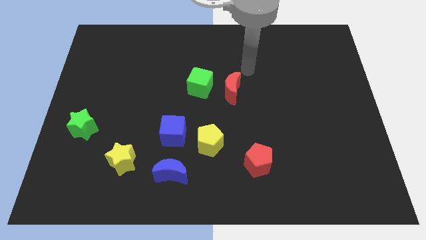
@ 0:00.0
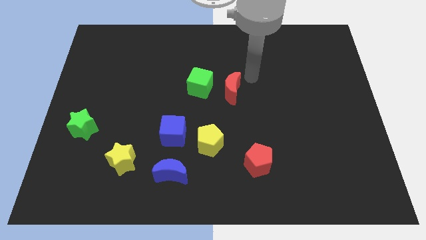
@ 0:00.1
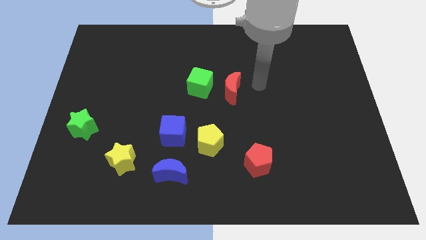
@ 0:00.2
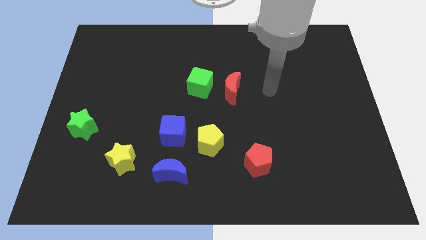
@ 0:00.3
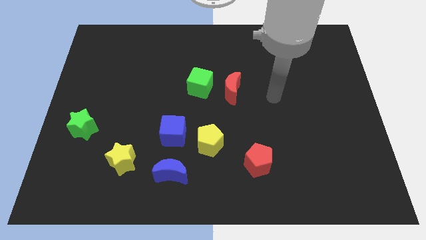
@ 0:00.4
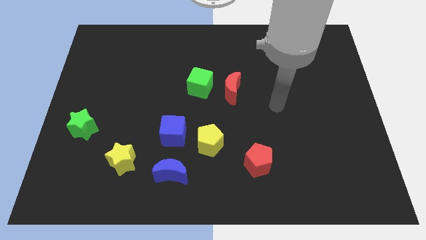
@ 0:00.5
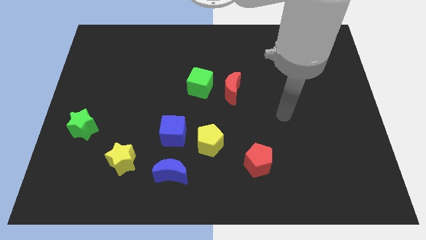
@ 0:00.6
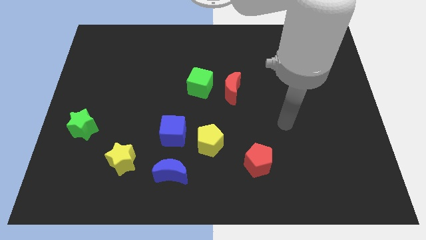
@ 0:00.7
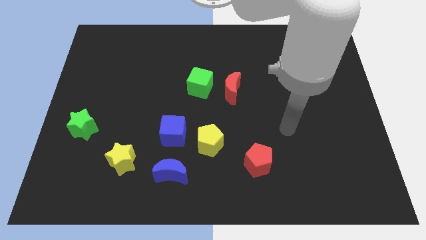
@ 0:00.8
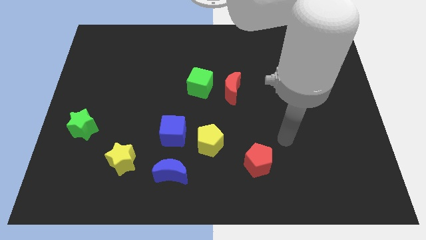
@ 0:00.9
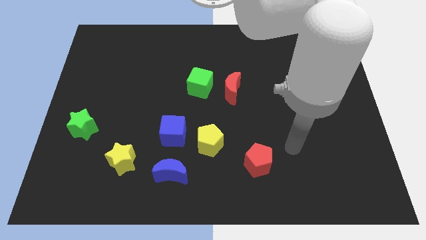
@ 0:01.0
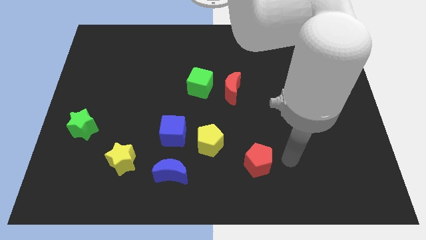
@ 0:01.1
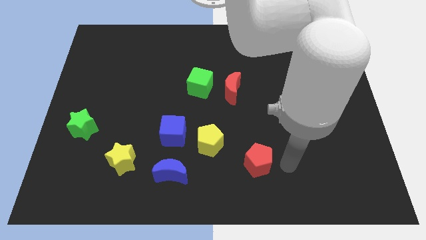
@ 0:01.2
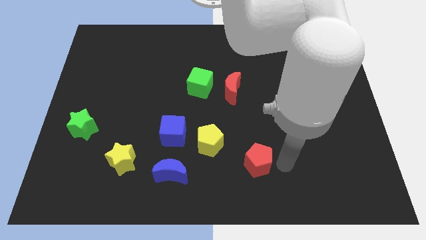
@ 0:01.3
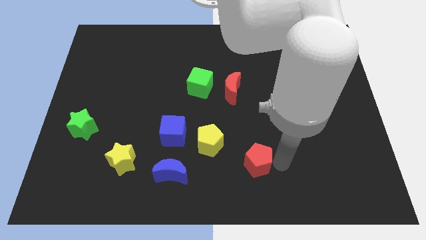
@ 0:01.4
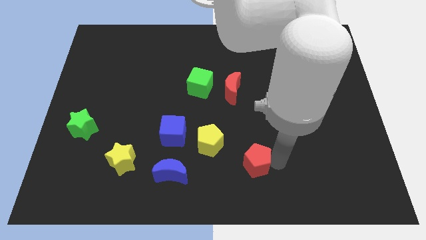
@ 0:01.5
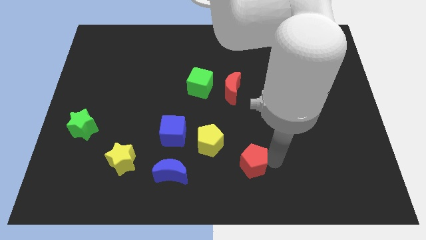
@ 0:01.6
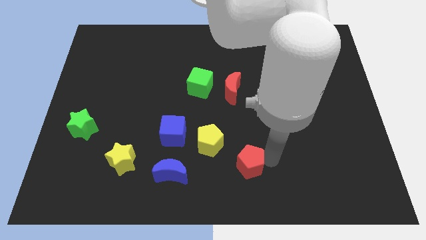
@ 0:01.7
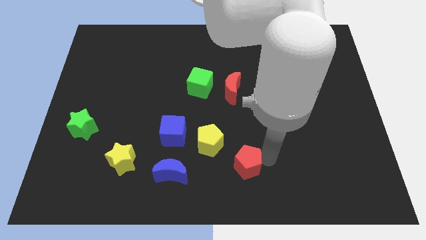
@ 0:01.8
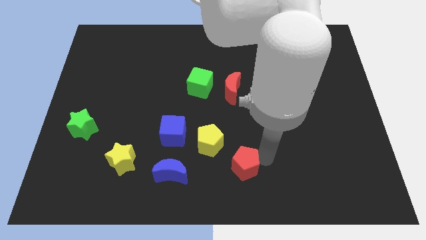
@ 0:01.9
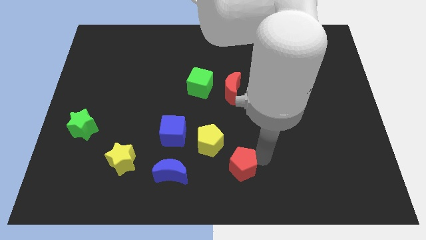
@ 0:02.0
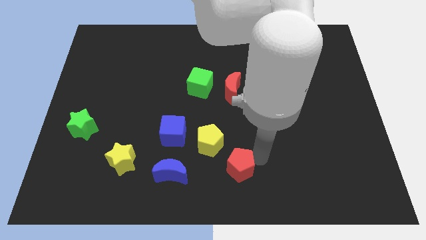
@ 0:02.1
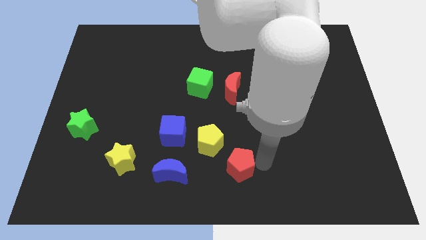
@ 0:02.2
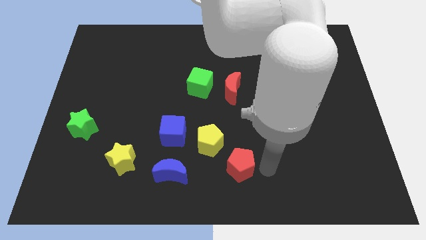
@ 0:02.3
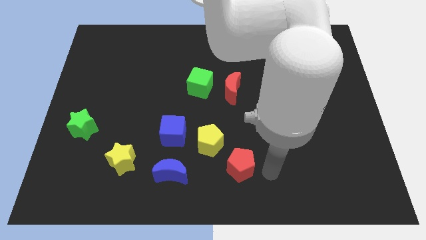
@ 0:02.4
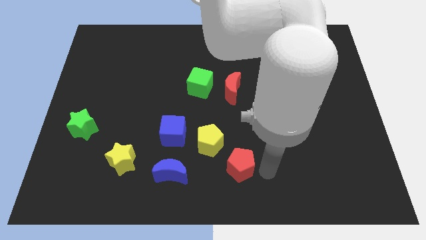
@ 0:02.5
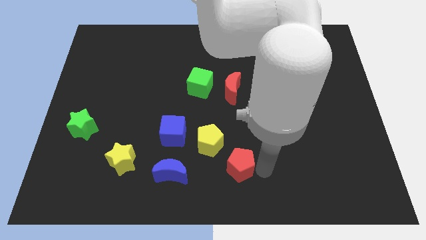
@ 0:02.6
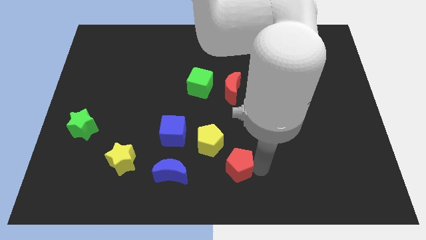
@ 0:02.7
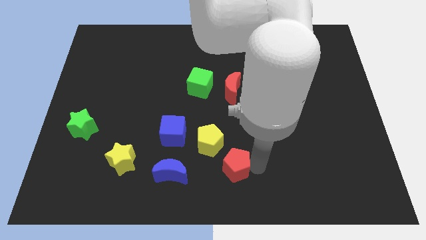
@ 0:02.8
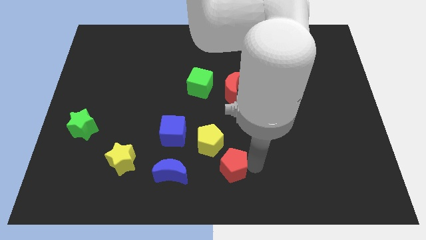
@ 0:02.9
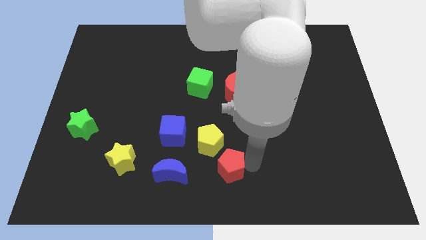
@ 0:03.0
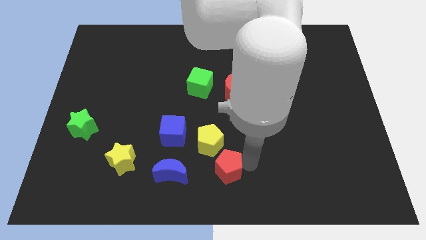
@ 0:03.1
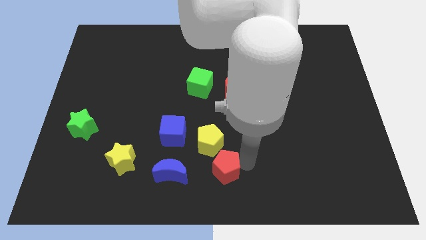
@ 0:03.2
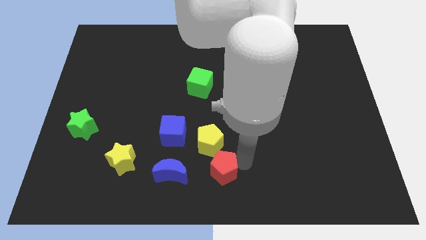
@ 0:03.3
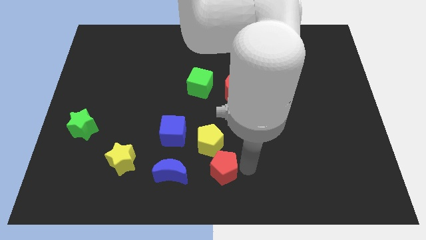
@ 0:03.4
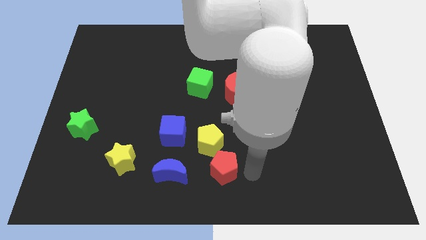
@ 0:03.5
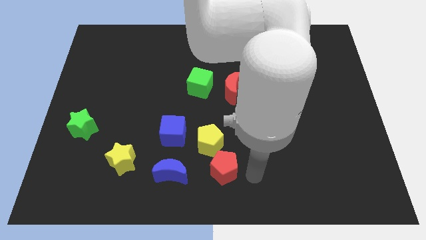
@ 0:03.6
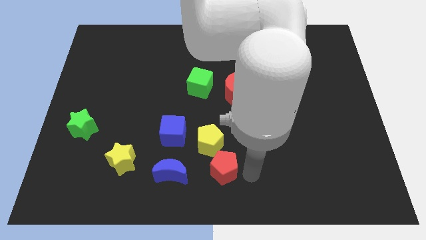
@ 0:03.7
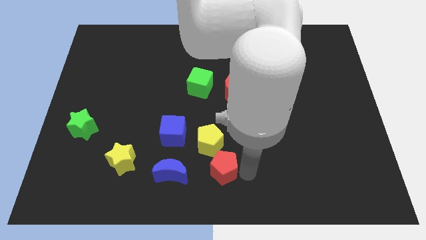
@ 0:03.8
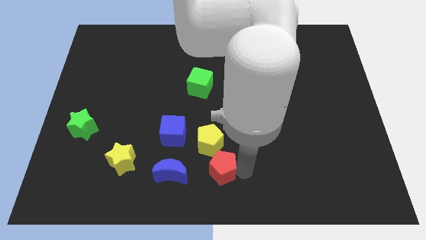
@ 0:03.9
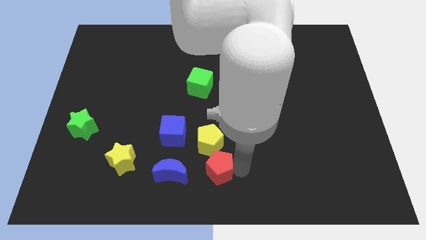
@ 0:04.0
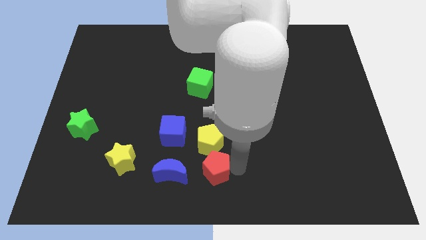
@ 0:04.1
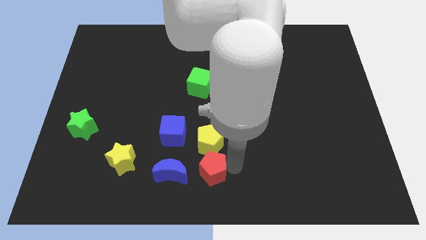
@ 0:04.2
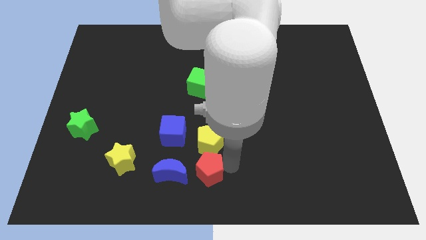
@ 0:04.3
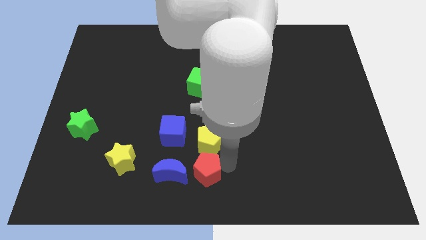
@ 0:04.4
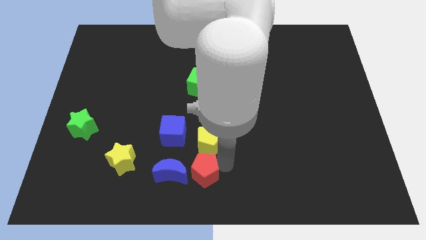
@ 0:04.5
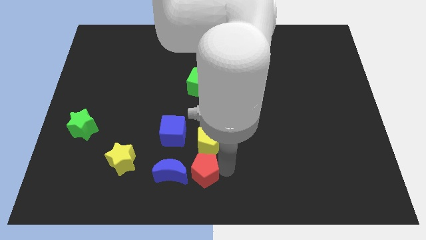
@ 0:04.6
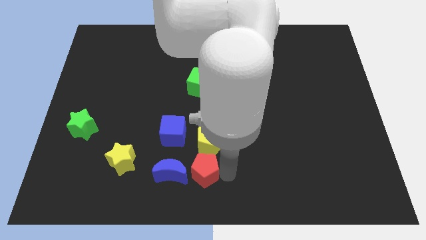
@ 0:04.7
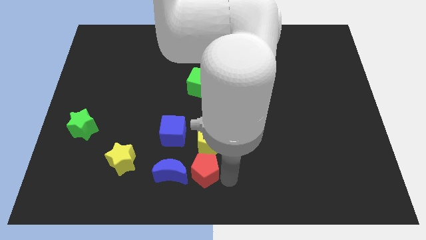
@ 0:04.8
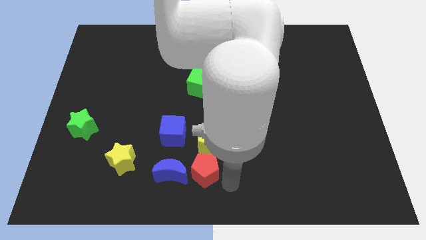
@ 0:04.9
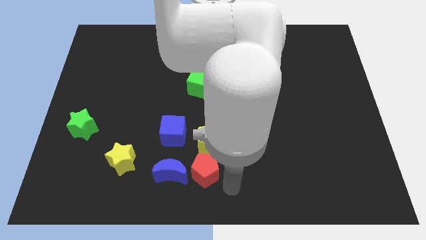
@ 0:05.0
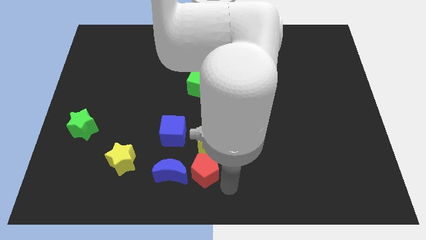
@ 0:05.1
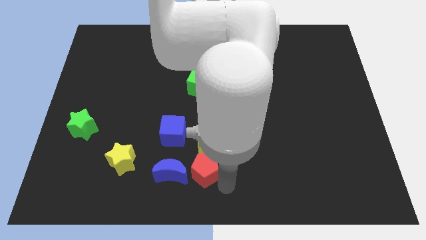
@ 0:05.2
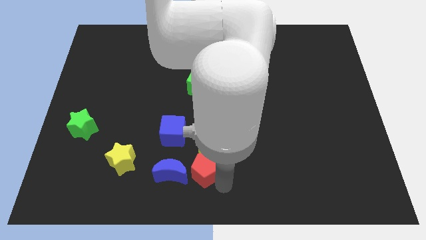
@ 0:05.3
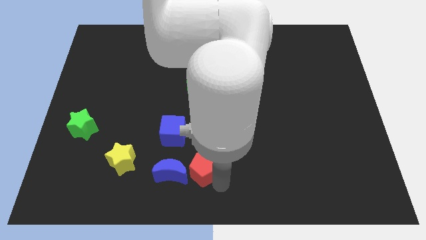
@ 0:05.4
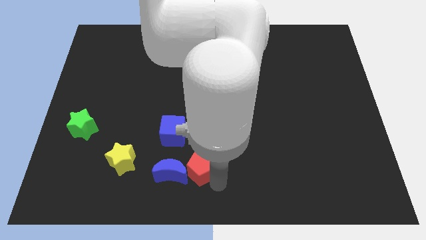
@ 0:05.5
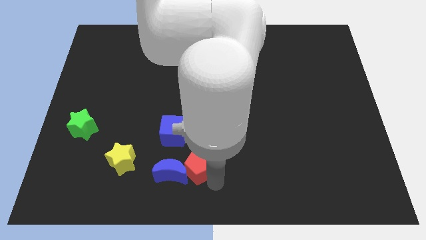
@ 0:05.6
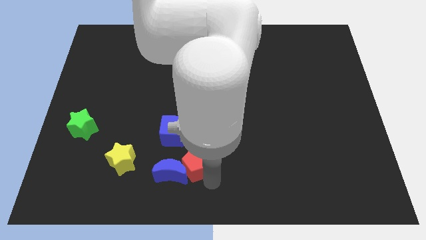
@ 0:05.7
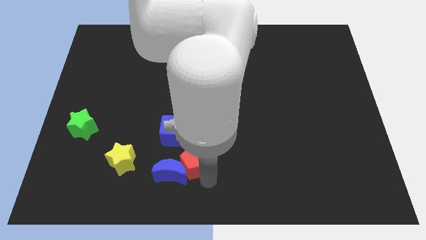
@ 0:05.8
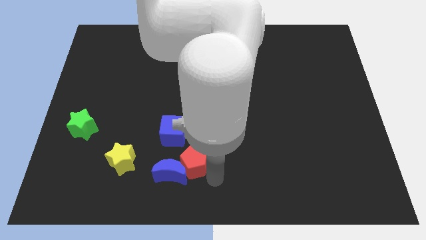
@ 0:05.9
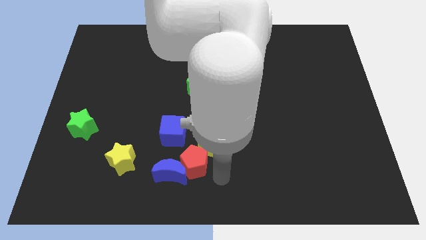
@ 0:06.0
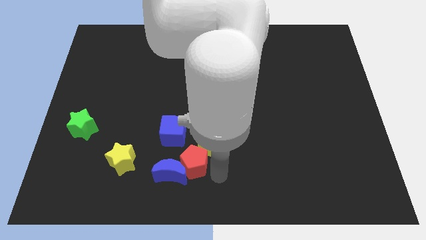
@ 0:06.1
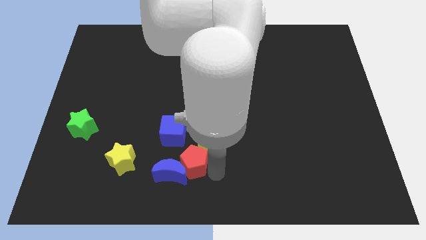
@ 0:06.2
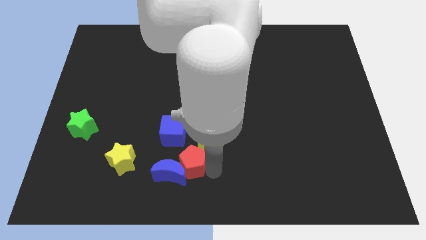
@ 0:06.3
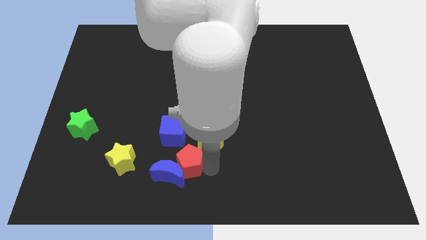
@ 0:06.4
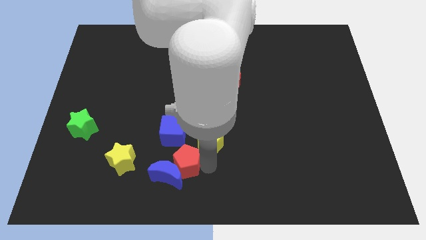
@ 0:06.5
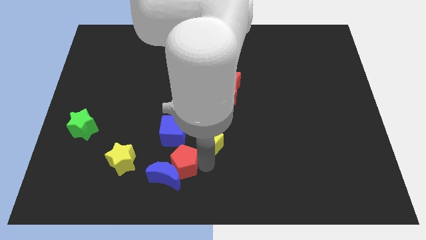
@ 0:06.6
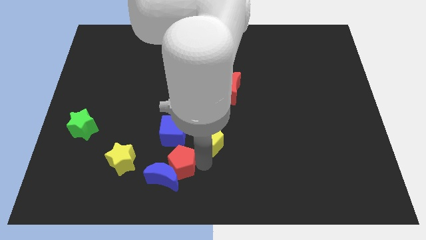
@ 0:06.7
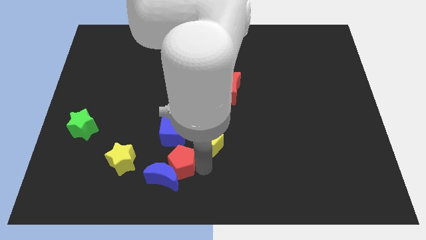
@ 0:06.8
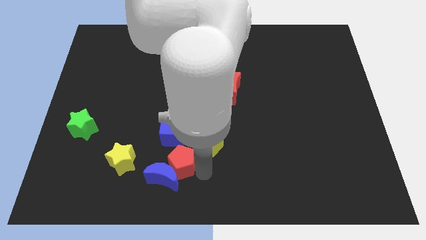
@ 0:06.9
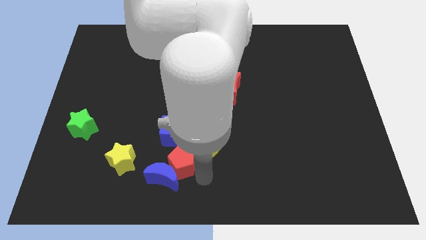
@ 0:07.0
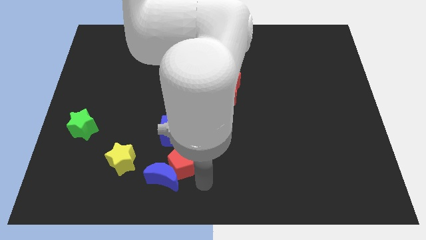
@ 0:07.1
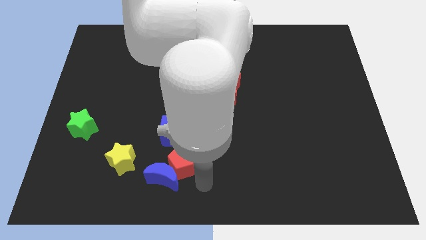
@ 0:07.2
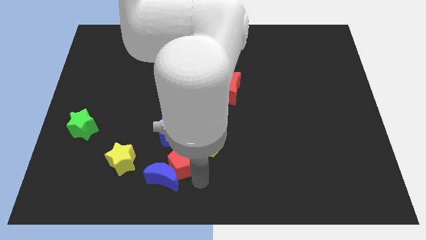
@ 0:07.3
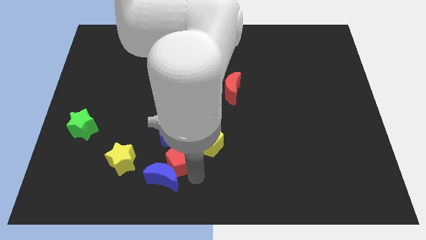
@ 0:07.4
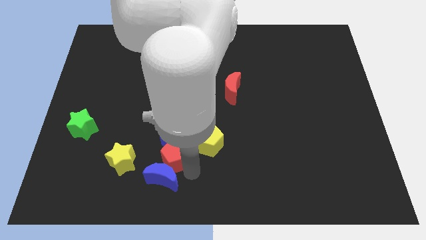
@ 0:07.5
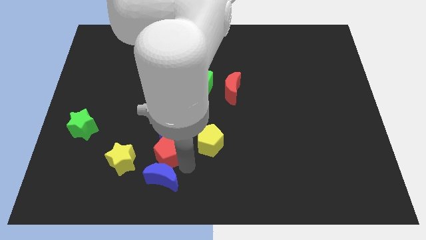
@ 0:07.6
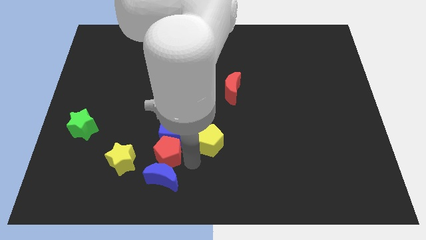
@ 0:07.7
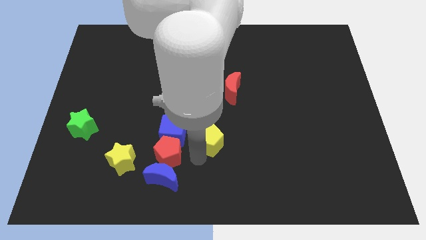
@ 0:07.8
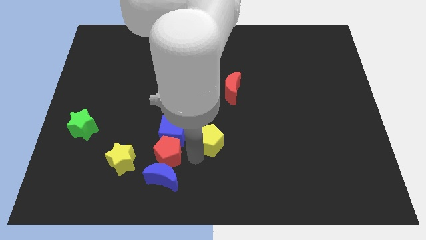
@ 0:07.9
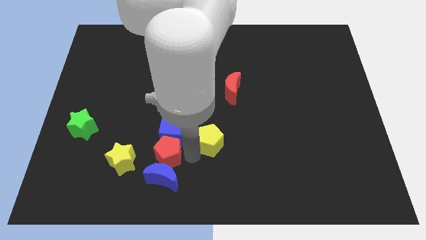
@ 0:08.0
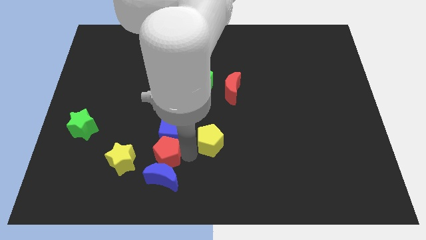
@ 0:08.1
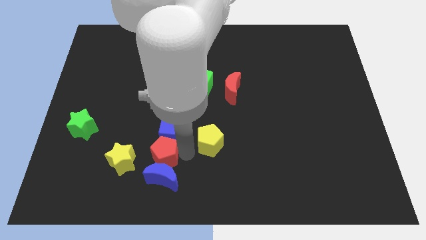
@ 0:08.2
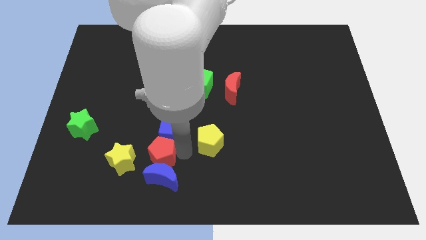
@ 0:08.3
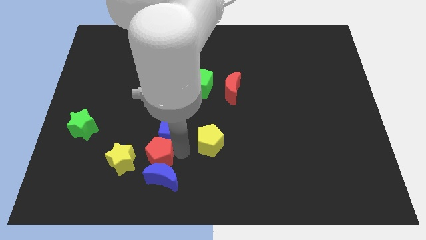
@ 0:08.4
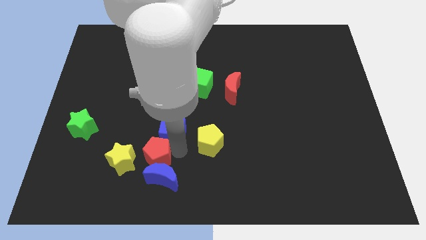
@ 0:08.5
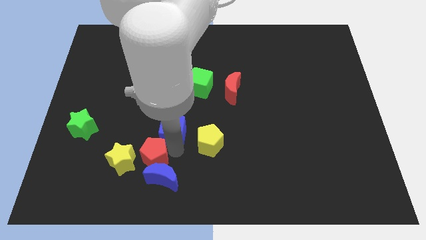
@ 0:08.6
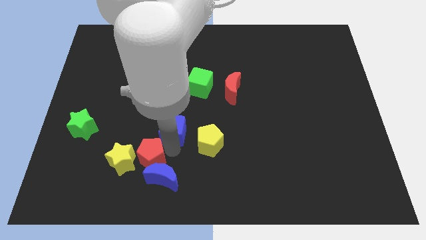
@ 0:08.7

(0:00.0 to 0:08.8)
slide the red pentagon towards the yellow star
